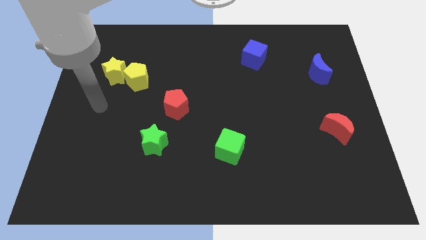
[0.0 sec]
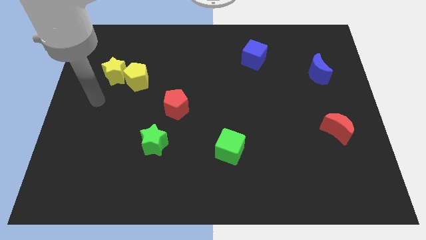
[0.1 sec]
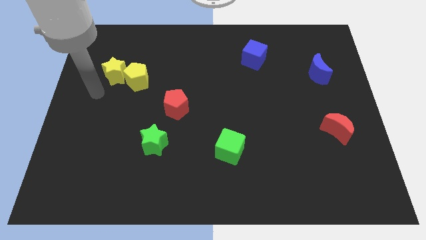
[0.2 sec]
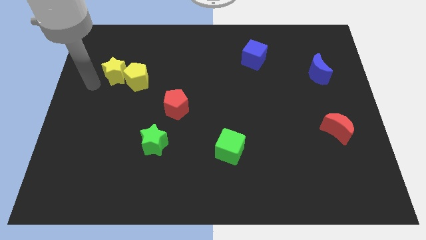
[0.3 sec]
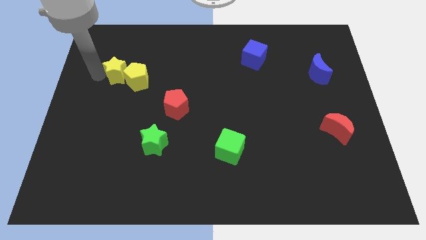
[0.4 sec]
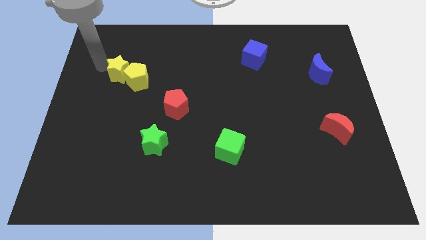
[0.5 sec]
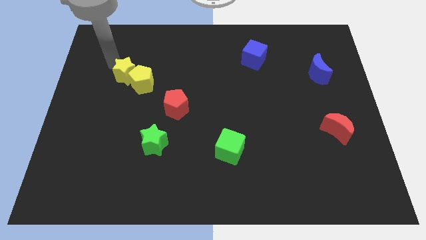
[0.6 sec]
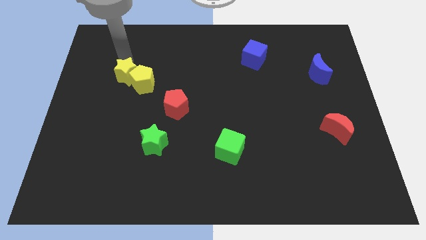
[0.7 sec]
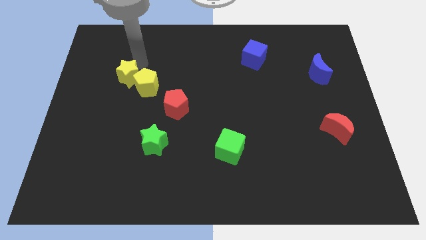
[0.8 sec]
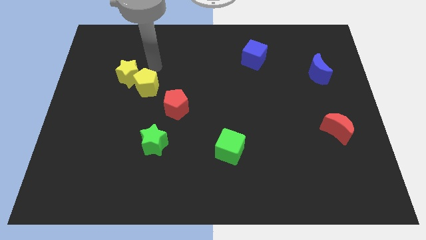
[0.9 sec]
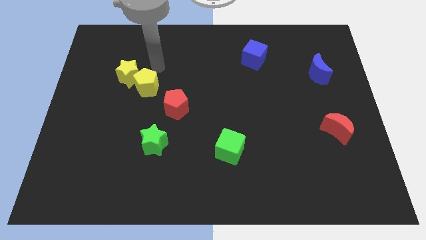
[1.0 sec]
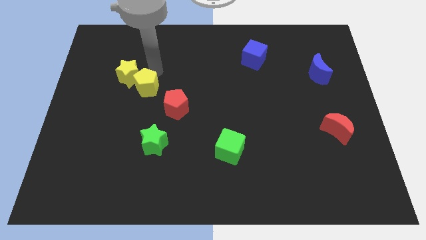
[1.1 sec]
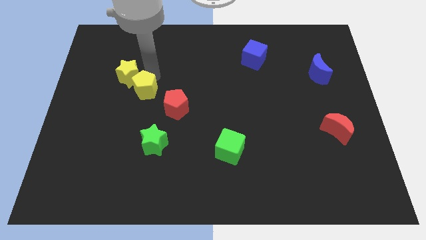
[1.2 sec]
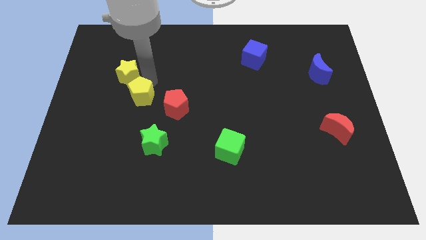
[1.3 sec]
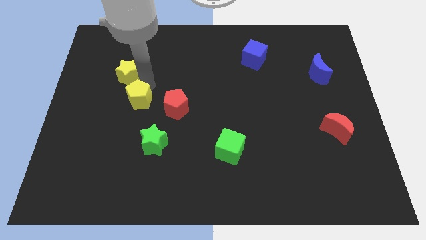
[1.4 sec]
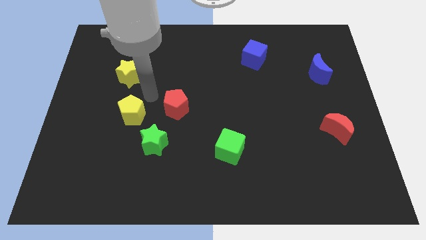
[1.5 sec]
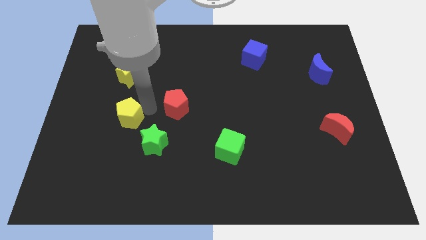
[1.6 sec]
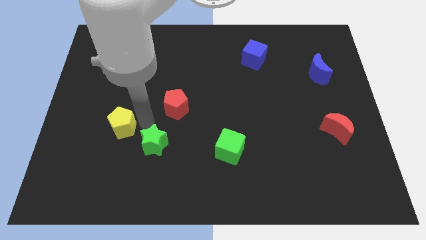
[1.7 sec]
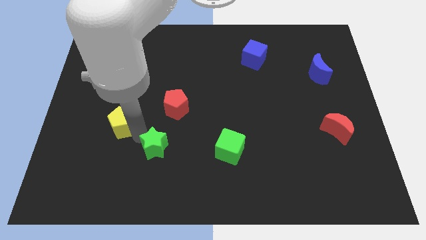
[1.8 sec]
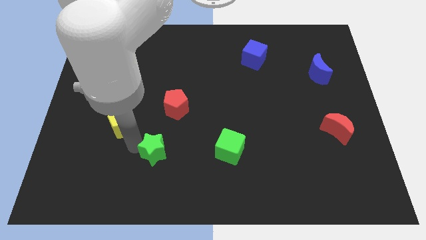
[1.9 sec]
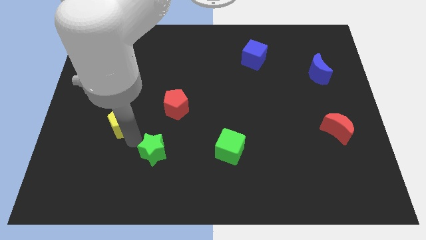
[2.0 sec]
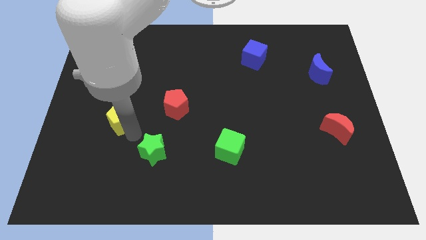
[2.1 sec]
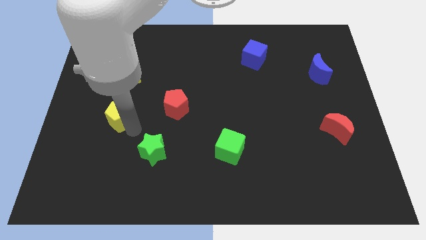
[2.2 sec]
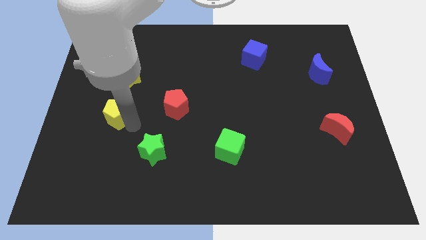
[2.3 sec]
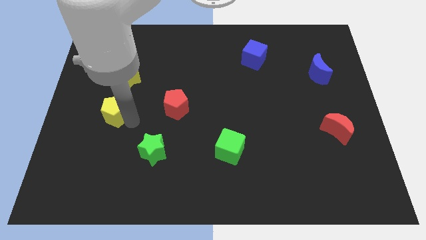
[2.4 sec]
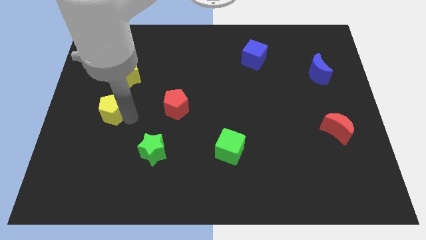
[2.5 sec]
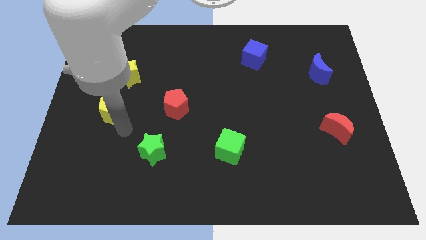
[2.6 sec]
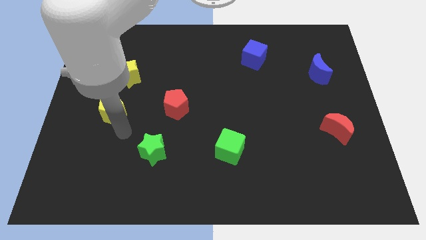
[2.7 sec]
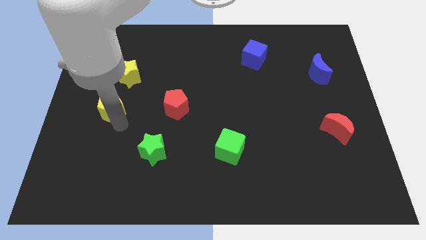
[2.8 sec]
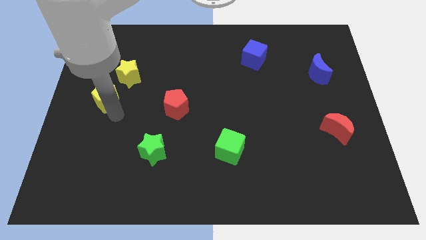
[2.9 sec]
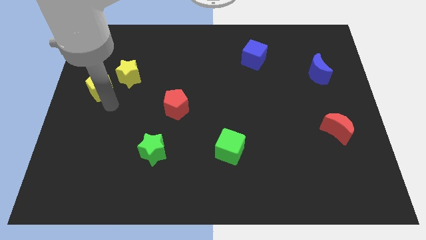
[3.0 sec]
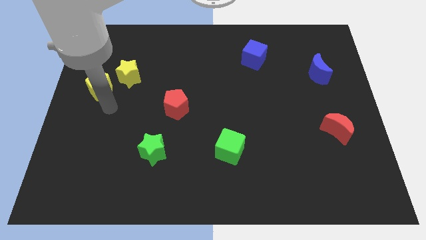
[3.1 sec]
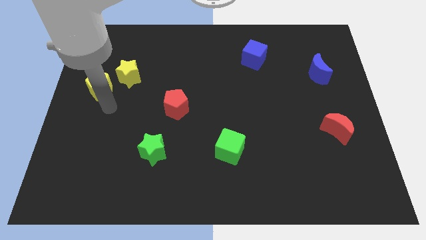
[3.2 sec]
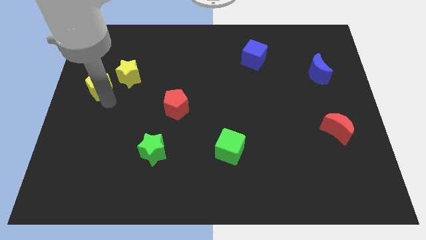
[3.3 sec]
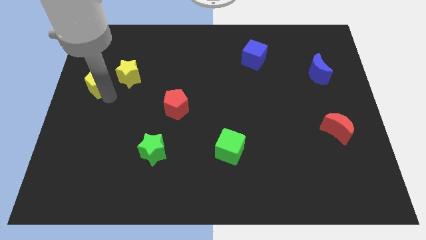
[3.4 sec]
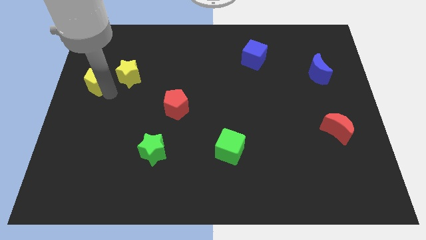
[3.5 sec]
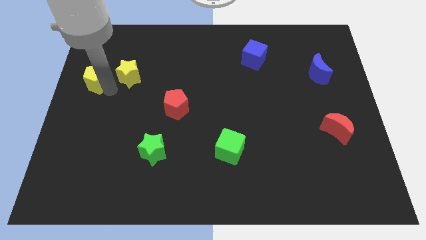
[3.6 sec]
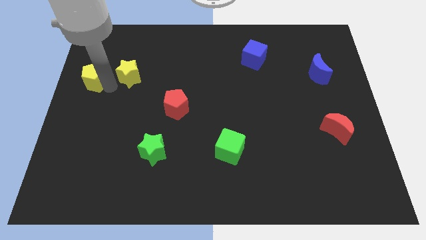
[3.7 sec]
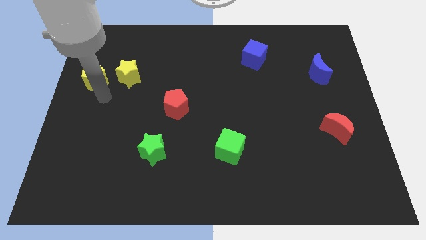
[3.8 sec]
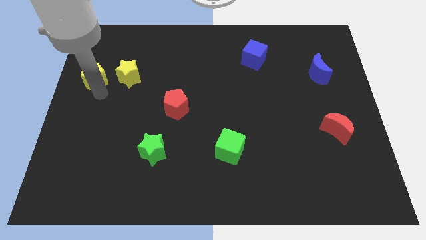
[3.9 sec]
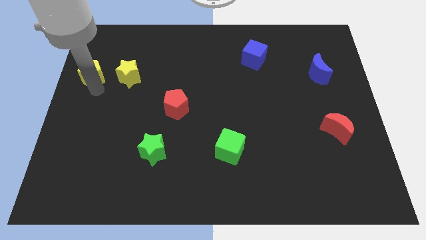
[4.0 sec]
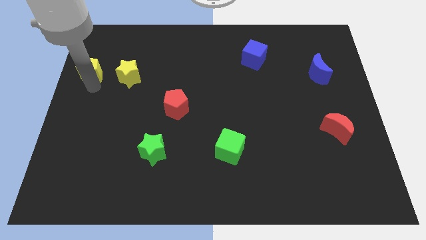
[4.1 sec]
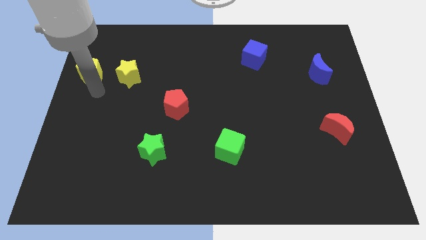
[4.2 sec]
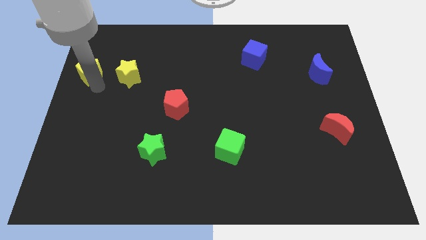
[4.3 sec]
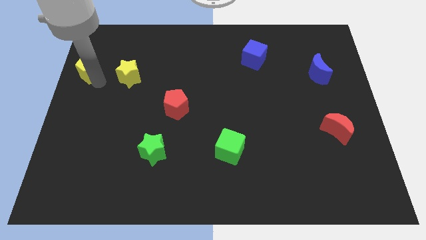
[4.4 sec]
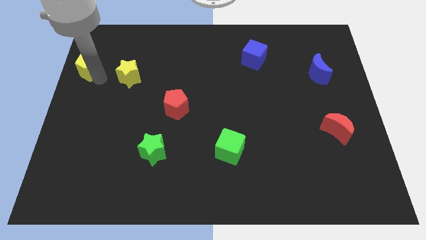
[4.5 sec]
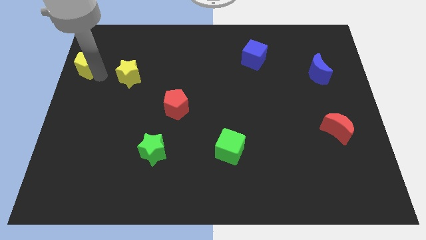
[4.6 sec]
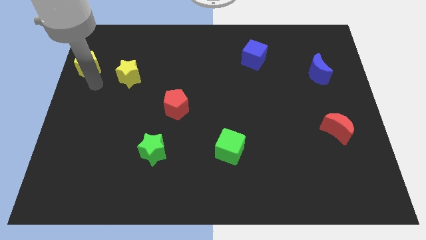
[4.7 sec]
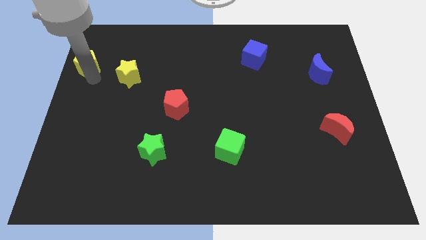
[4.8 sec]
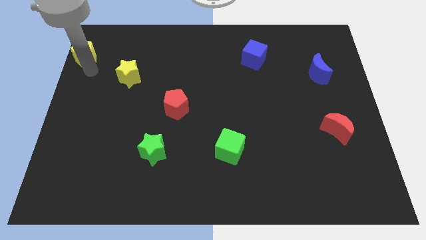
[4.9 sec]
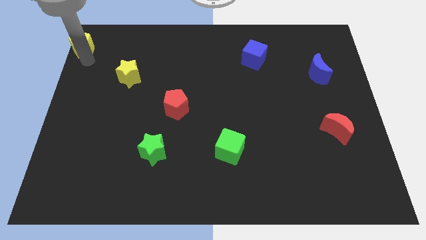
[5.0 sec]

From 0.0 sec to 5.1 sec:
put the yellow pentagon to the top left corner

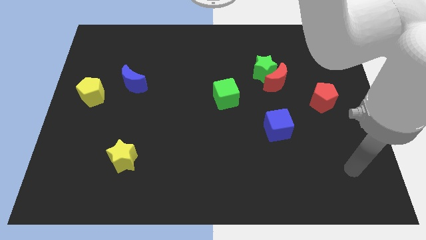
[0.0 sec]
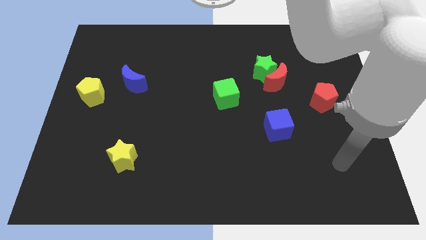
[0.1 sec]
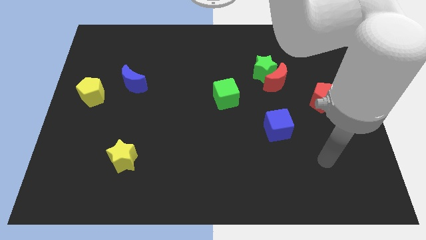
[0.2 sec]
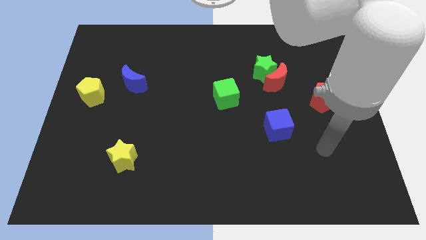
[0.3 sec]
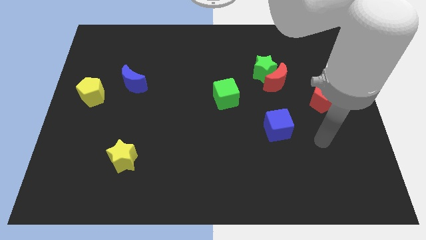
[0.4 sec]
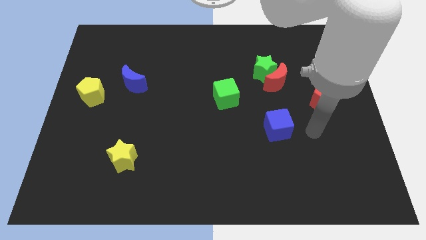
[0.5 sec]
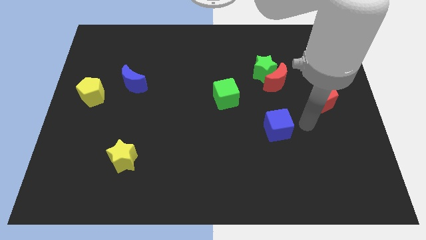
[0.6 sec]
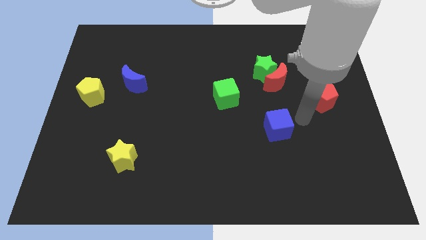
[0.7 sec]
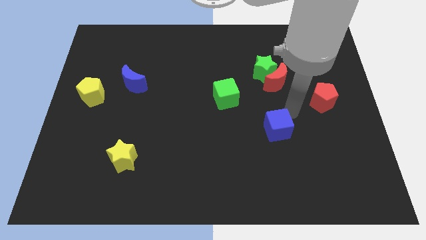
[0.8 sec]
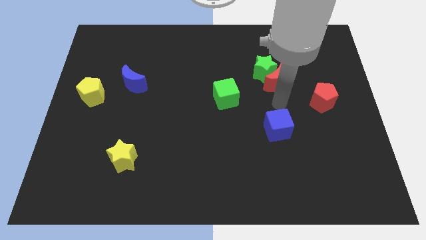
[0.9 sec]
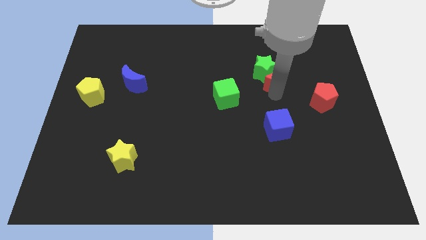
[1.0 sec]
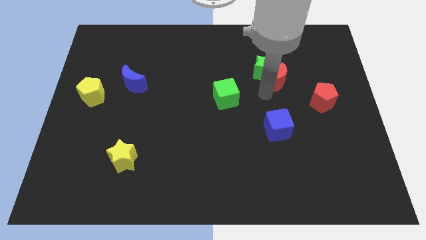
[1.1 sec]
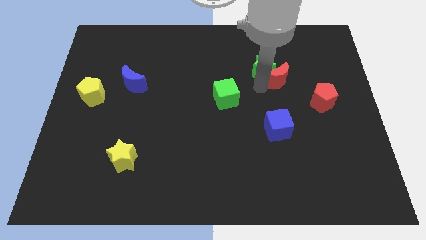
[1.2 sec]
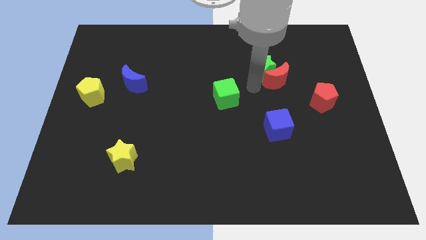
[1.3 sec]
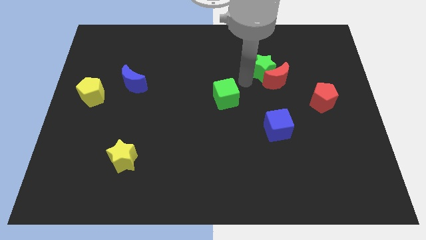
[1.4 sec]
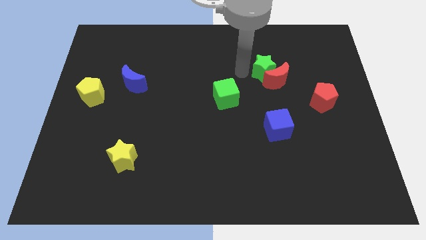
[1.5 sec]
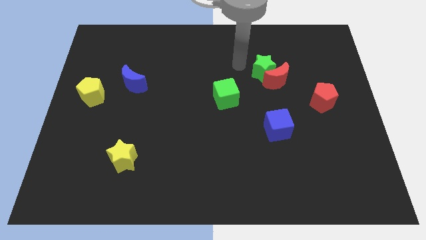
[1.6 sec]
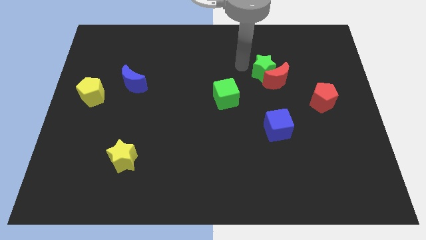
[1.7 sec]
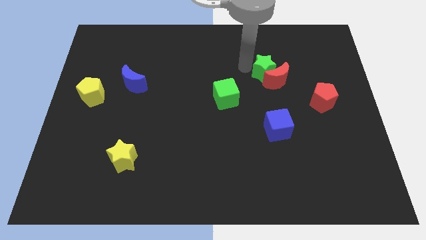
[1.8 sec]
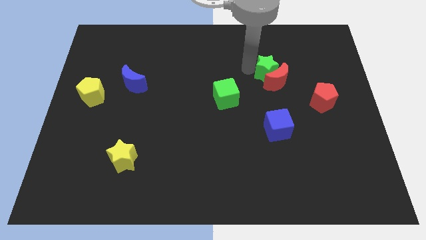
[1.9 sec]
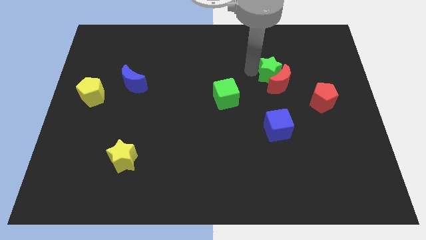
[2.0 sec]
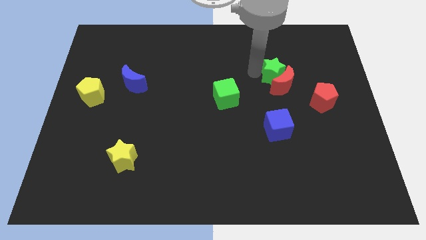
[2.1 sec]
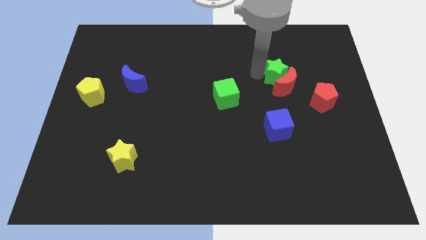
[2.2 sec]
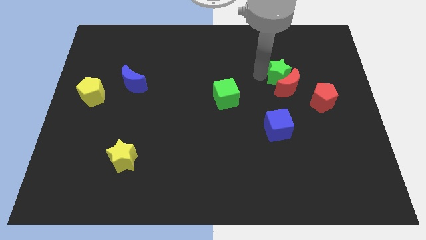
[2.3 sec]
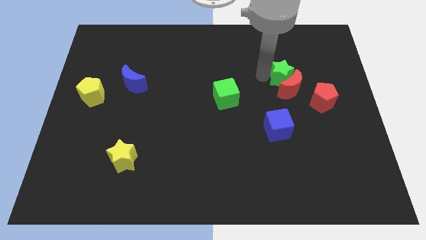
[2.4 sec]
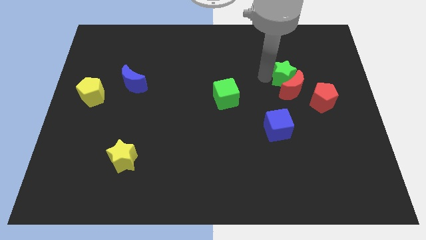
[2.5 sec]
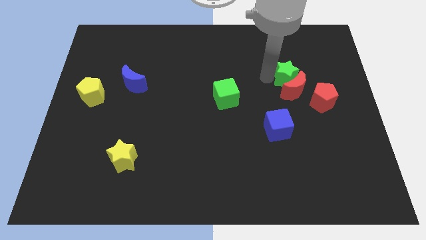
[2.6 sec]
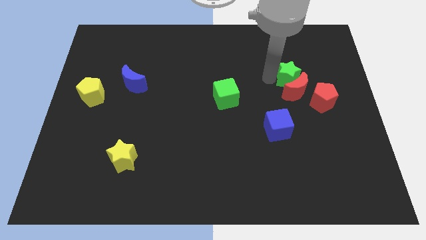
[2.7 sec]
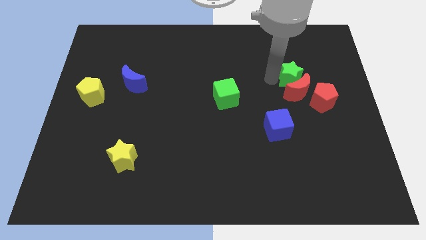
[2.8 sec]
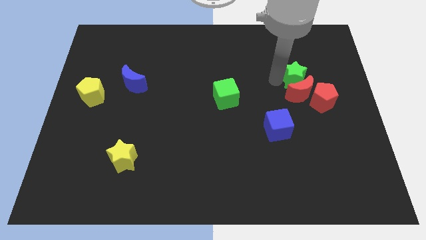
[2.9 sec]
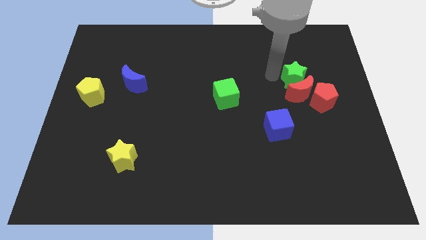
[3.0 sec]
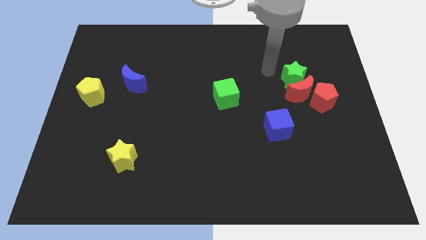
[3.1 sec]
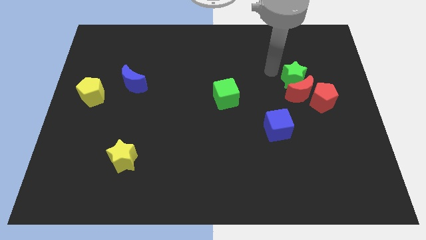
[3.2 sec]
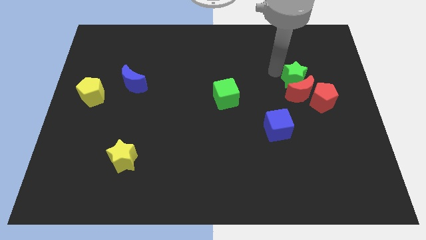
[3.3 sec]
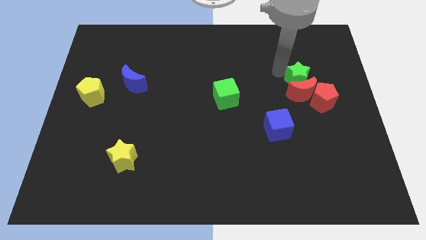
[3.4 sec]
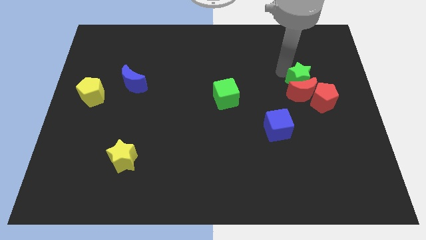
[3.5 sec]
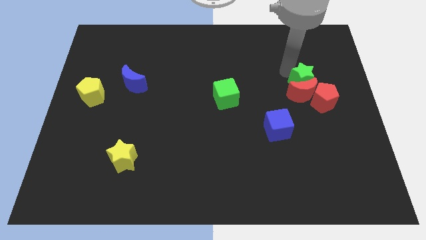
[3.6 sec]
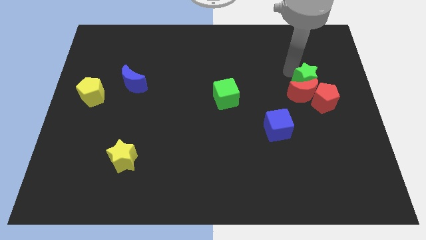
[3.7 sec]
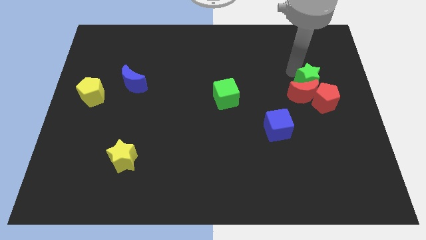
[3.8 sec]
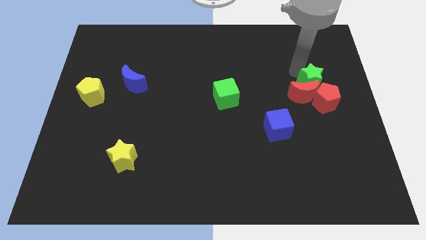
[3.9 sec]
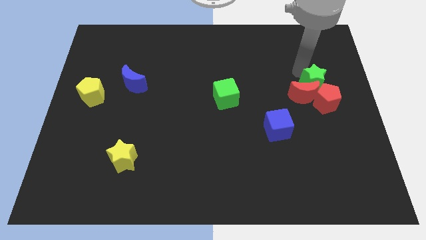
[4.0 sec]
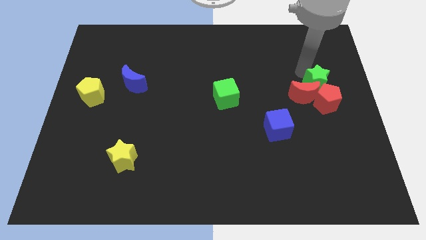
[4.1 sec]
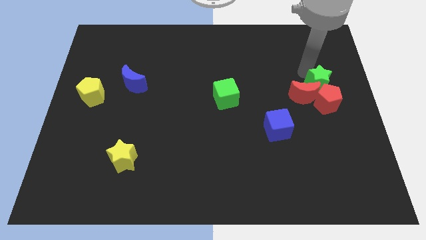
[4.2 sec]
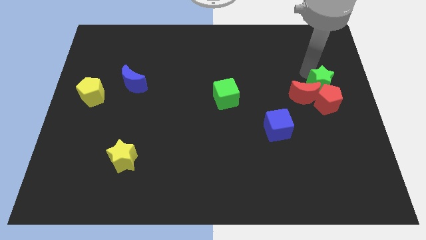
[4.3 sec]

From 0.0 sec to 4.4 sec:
slide the green star to the right side of the board
